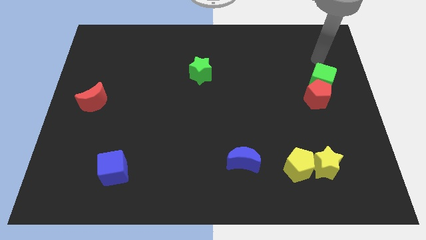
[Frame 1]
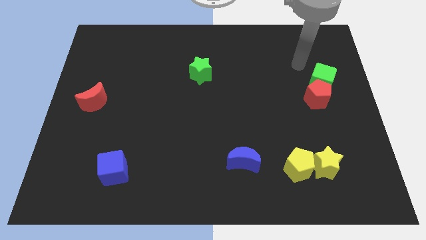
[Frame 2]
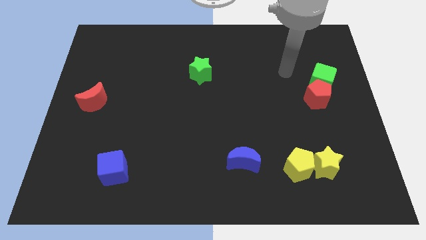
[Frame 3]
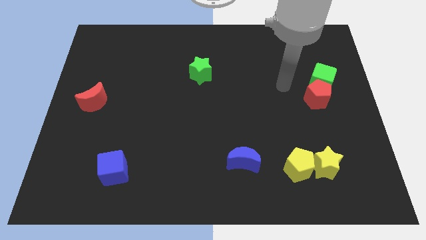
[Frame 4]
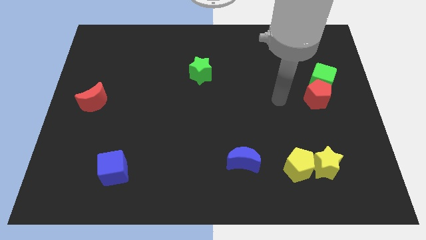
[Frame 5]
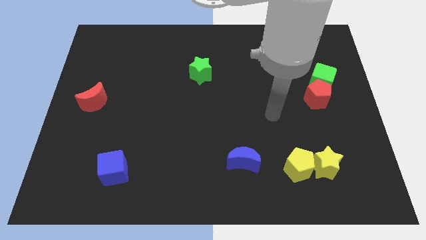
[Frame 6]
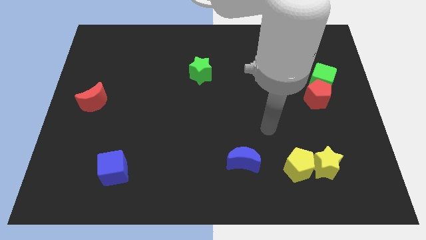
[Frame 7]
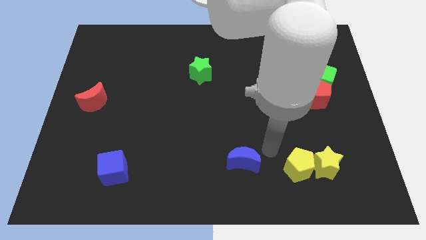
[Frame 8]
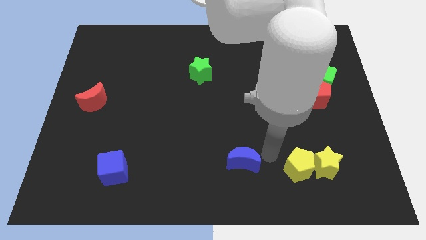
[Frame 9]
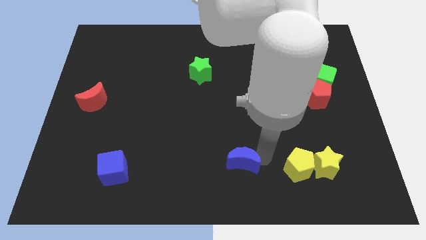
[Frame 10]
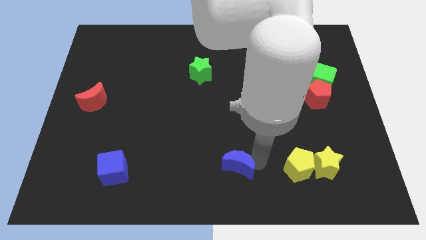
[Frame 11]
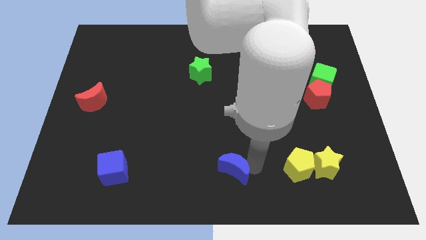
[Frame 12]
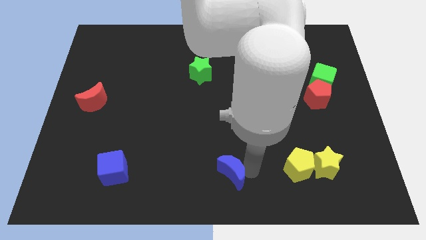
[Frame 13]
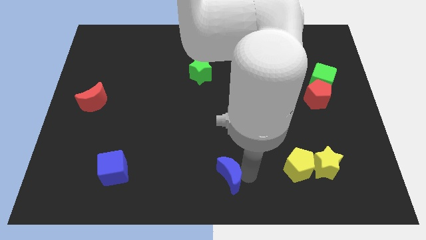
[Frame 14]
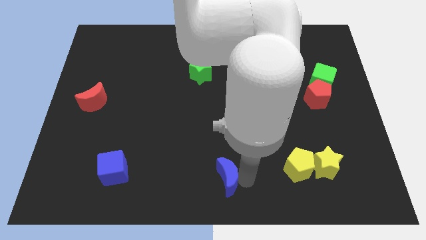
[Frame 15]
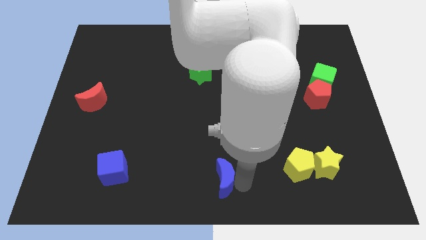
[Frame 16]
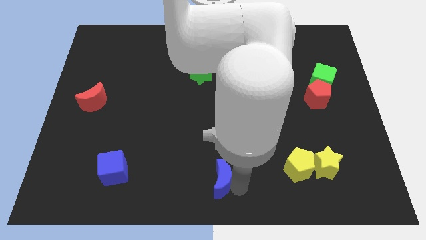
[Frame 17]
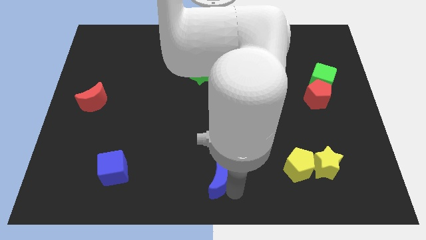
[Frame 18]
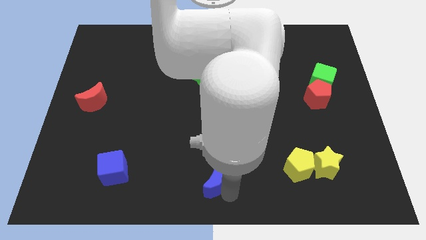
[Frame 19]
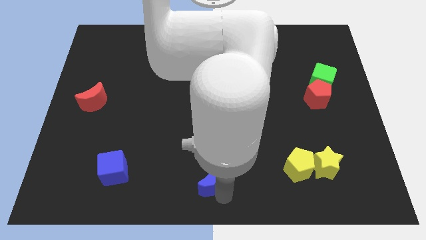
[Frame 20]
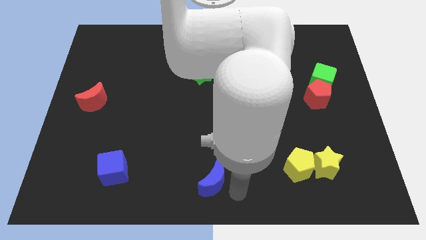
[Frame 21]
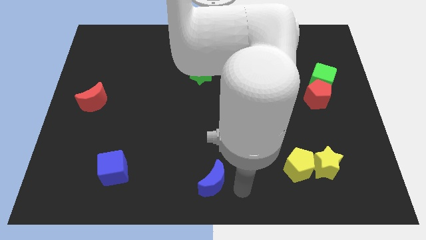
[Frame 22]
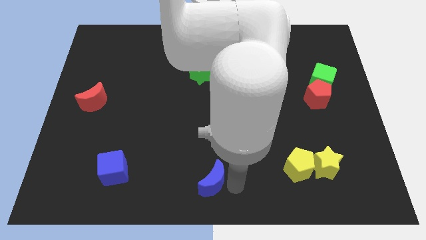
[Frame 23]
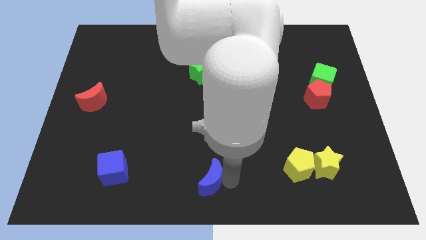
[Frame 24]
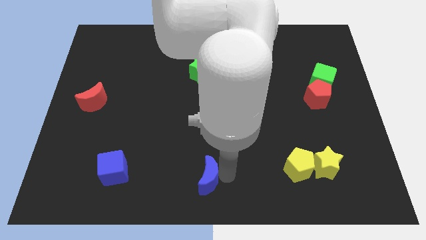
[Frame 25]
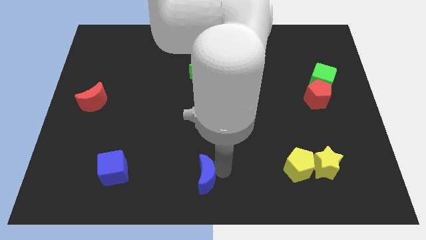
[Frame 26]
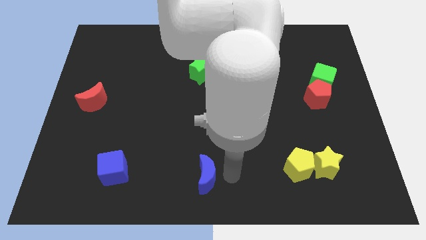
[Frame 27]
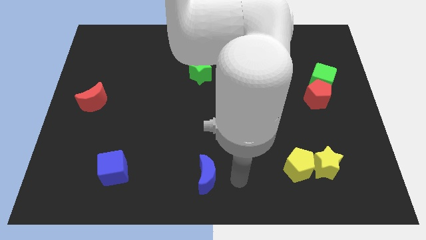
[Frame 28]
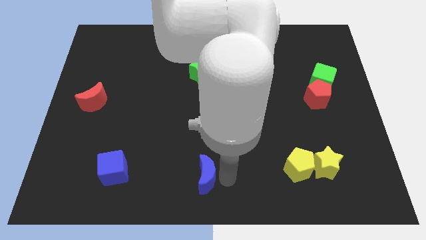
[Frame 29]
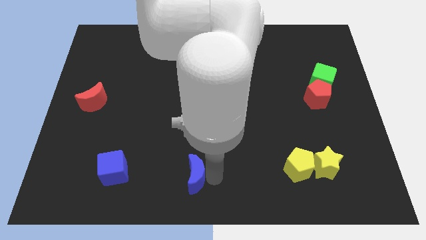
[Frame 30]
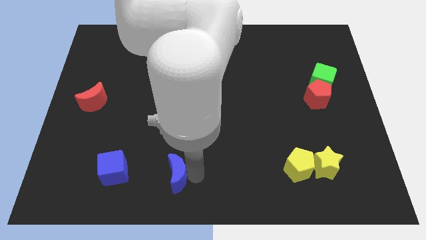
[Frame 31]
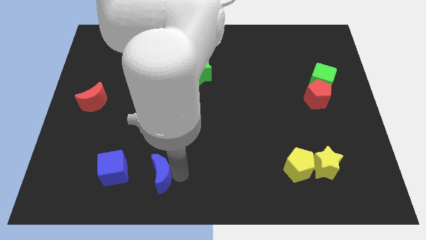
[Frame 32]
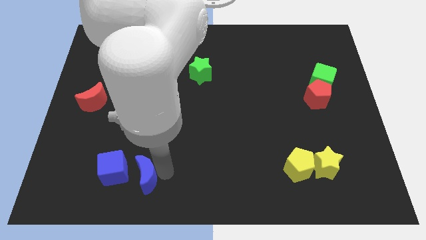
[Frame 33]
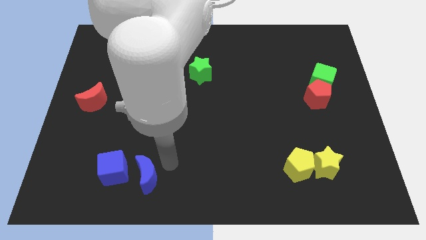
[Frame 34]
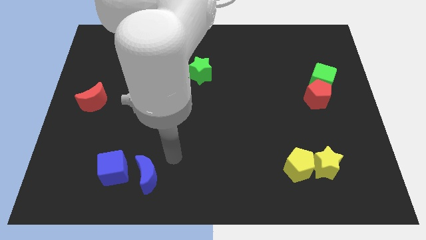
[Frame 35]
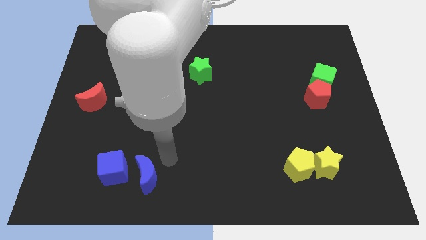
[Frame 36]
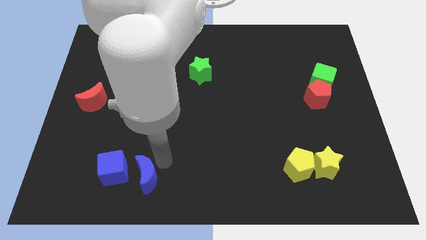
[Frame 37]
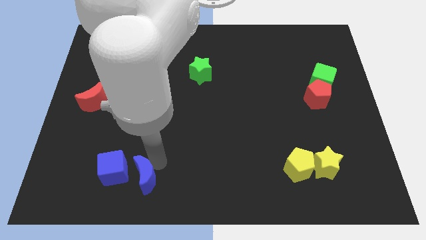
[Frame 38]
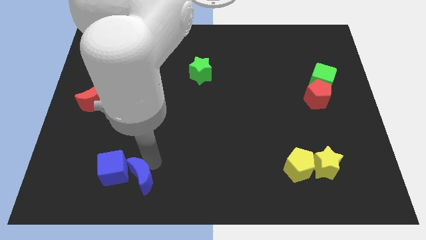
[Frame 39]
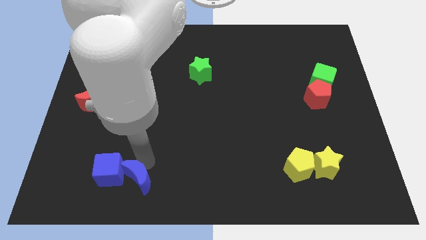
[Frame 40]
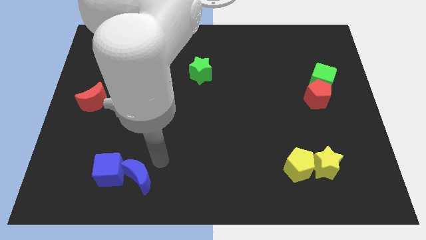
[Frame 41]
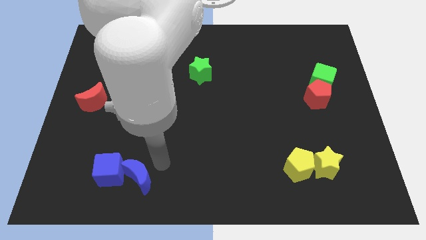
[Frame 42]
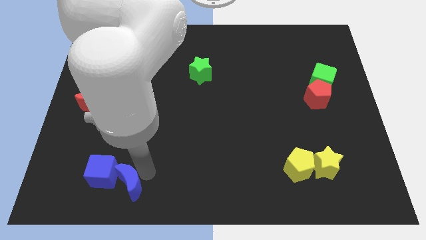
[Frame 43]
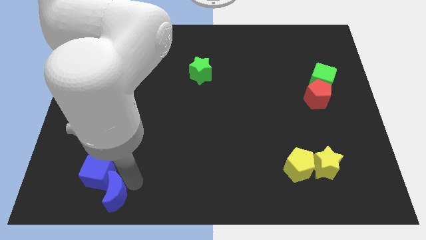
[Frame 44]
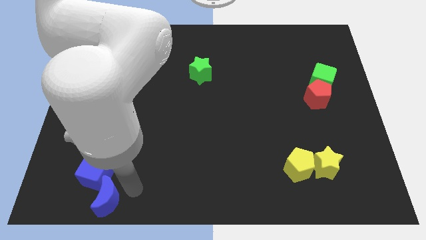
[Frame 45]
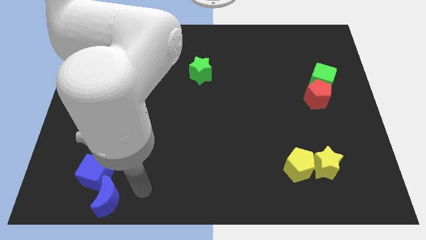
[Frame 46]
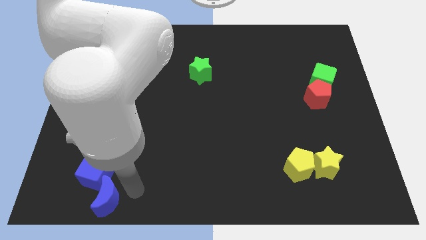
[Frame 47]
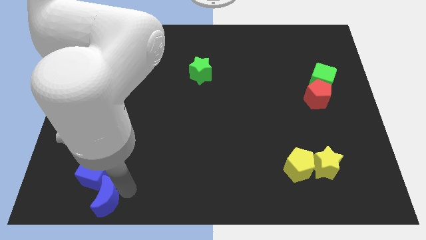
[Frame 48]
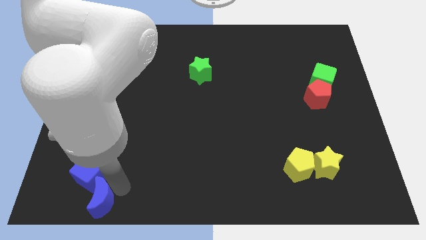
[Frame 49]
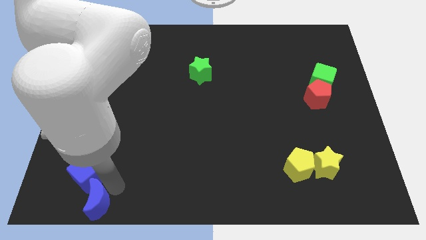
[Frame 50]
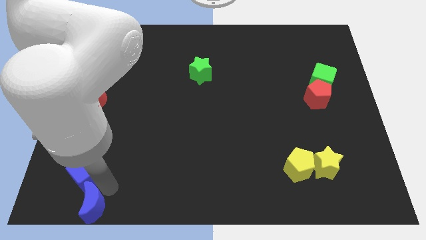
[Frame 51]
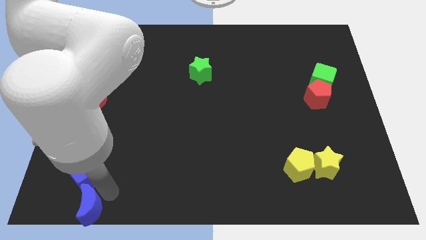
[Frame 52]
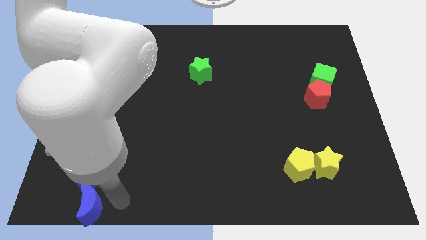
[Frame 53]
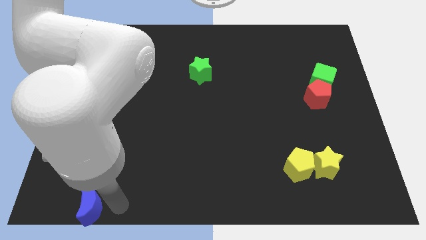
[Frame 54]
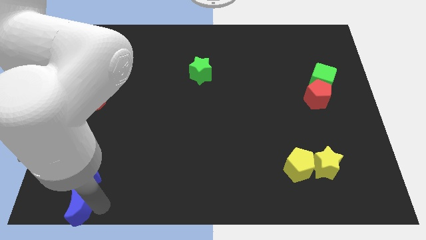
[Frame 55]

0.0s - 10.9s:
push the blue moon to the bottom left

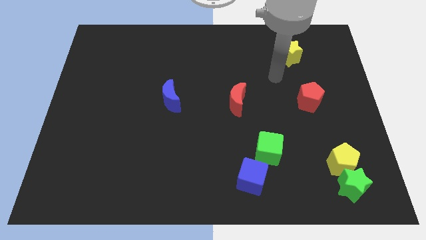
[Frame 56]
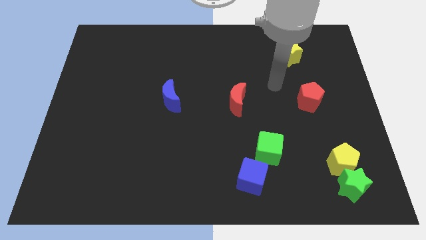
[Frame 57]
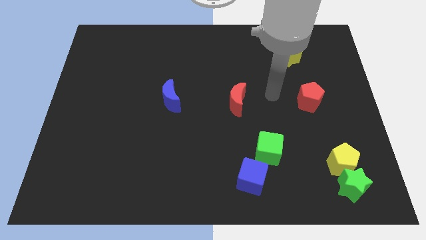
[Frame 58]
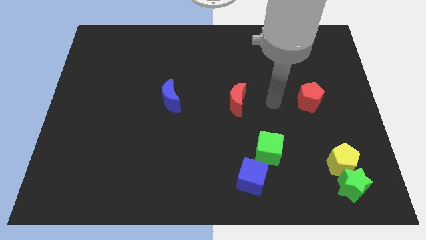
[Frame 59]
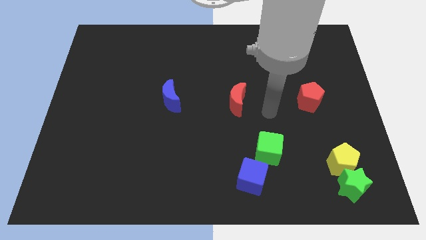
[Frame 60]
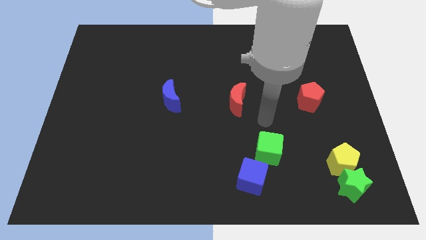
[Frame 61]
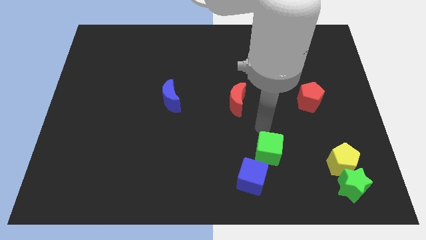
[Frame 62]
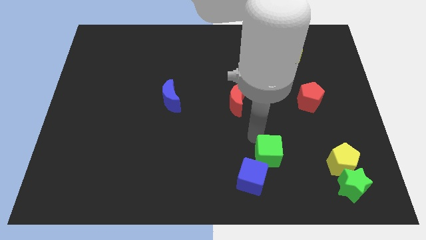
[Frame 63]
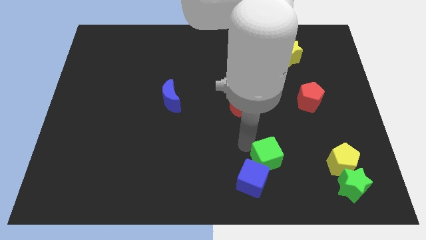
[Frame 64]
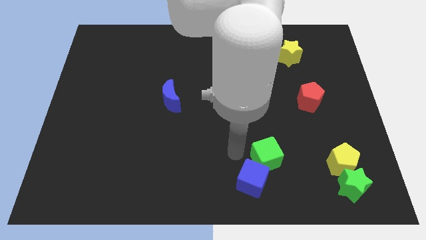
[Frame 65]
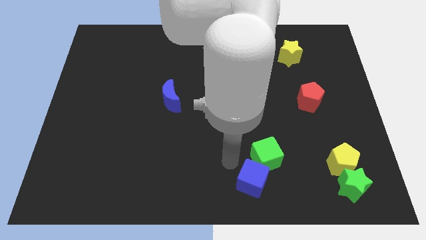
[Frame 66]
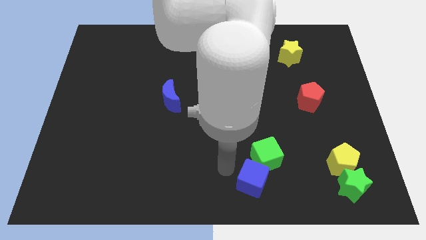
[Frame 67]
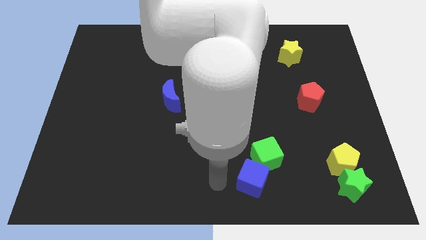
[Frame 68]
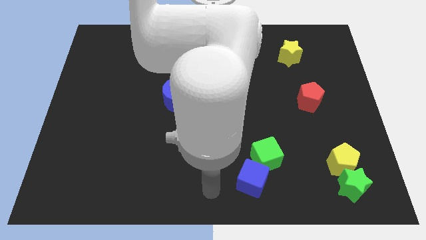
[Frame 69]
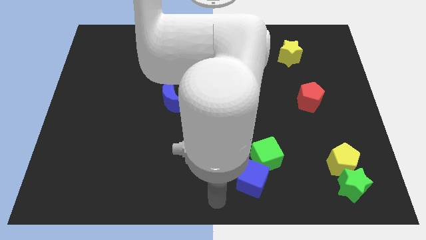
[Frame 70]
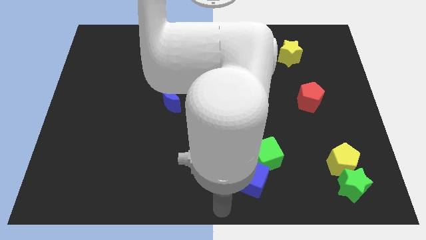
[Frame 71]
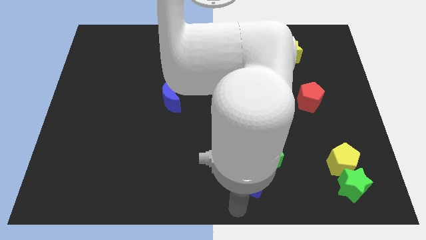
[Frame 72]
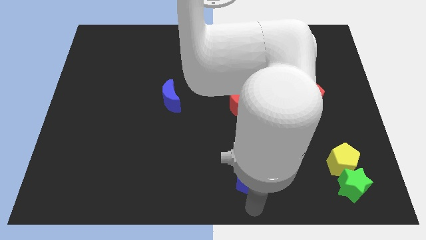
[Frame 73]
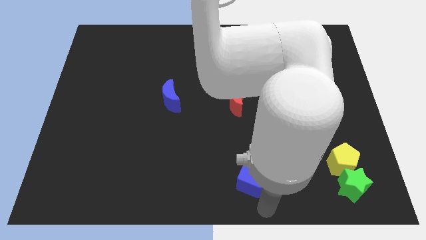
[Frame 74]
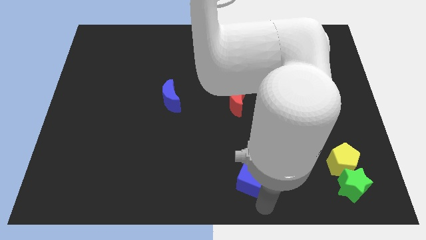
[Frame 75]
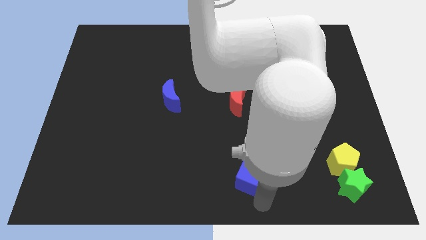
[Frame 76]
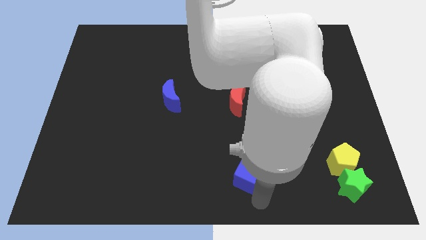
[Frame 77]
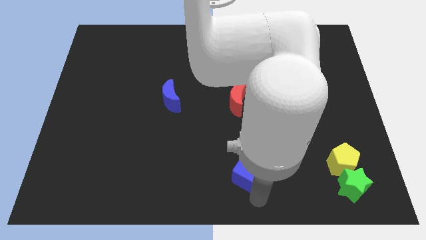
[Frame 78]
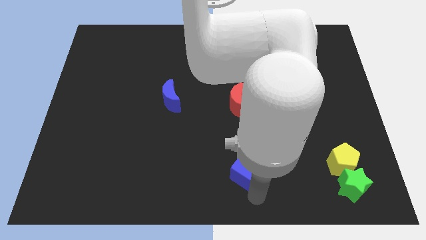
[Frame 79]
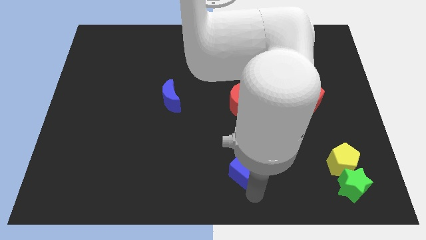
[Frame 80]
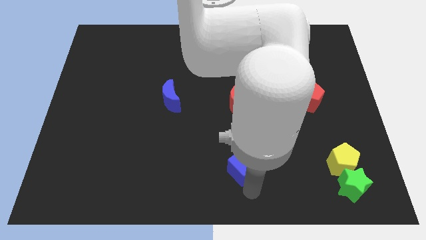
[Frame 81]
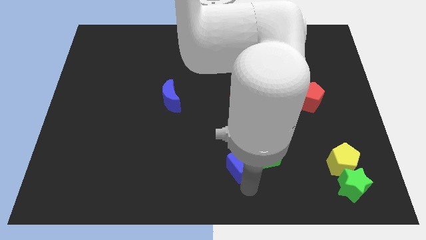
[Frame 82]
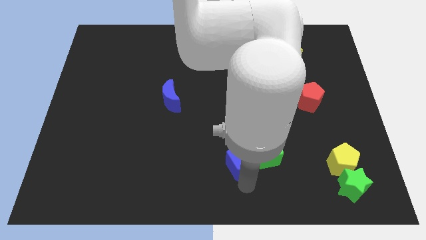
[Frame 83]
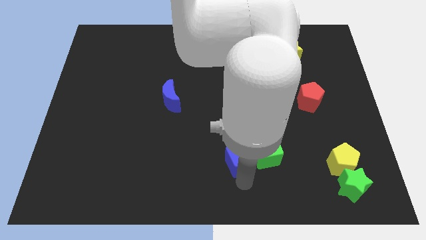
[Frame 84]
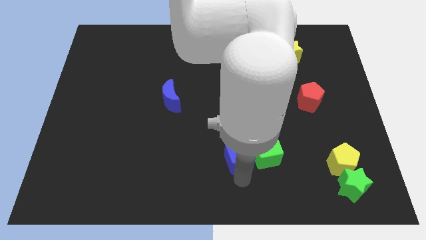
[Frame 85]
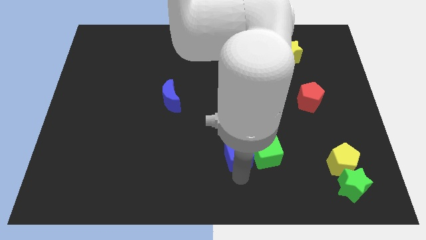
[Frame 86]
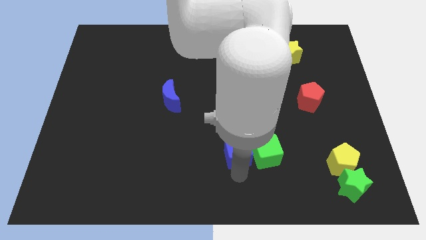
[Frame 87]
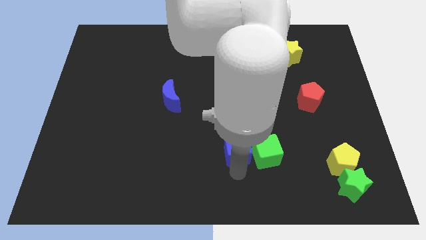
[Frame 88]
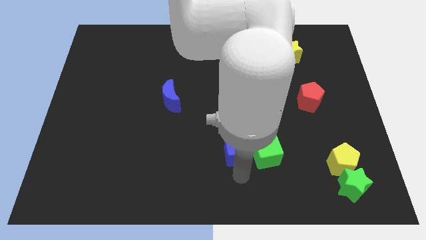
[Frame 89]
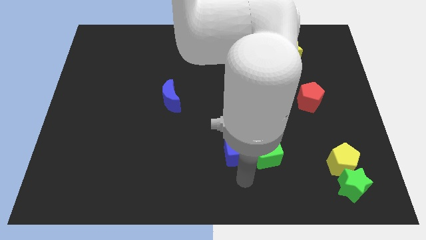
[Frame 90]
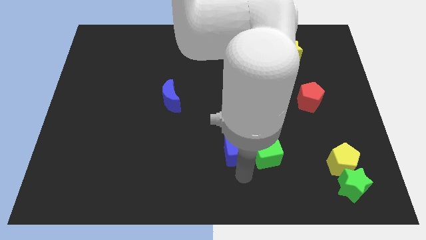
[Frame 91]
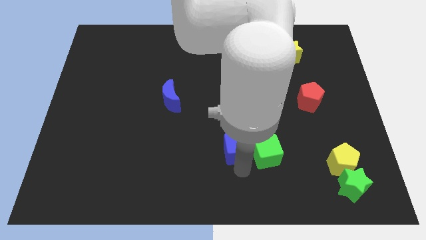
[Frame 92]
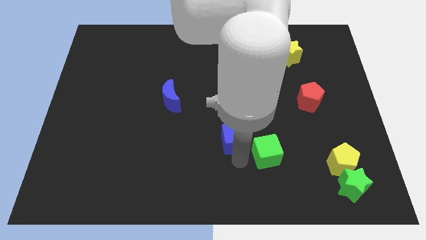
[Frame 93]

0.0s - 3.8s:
slide the blue cube to the middle
